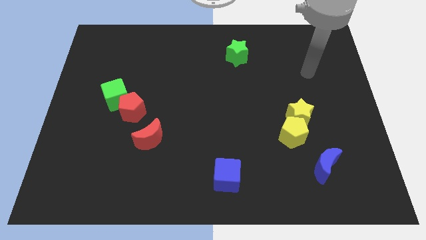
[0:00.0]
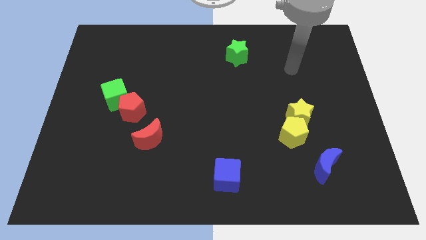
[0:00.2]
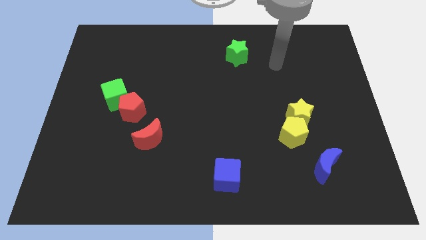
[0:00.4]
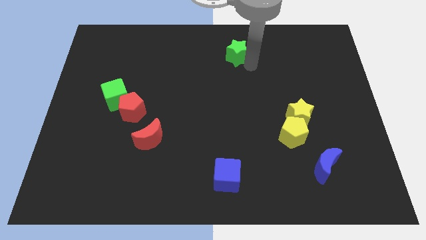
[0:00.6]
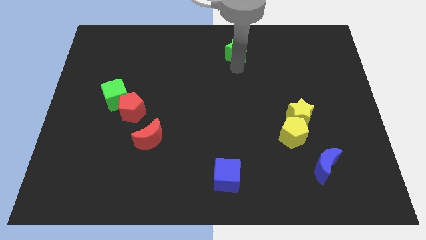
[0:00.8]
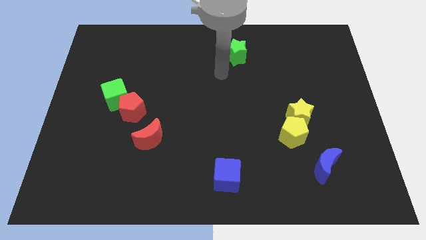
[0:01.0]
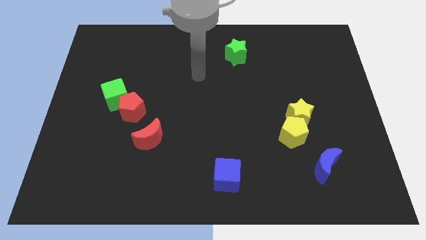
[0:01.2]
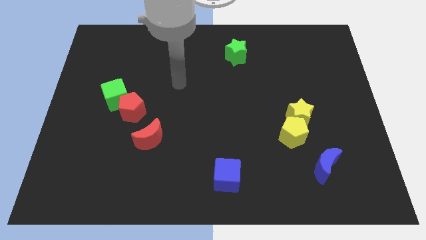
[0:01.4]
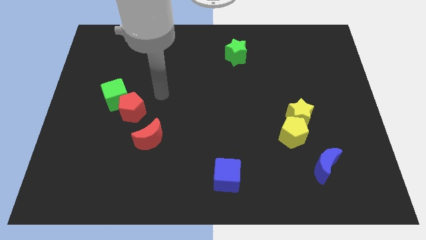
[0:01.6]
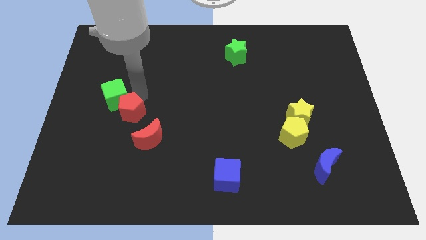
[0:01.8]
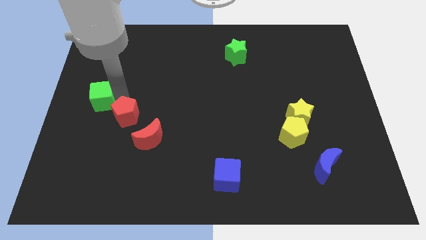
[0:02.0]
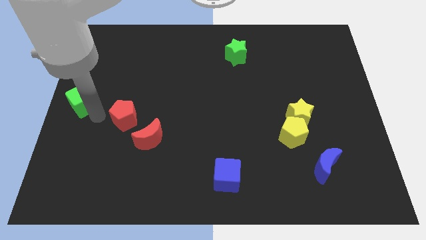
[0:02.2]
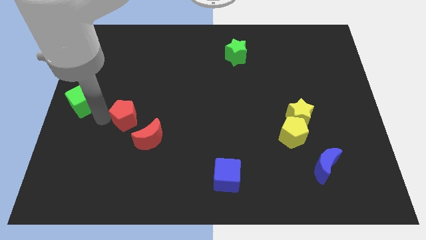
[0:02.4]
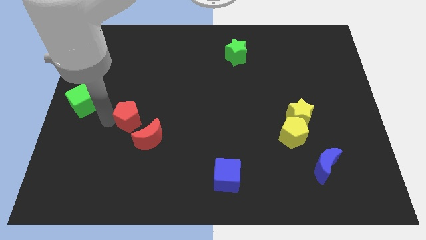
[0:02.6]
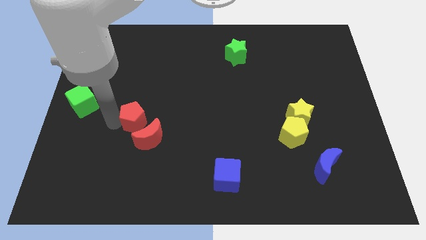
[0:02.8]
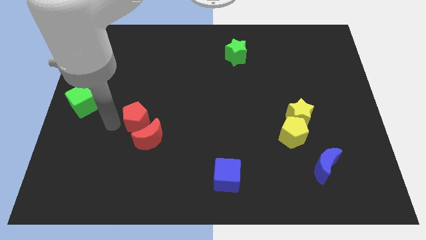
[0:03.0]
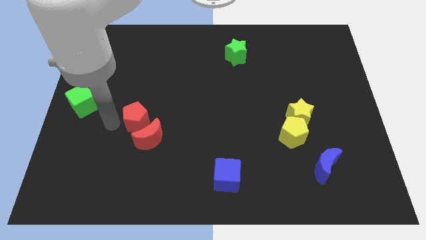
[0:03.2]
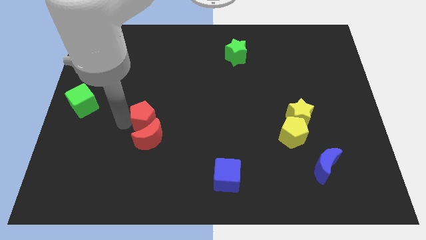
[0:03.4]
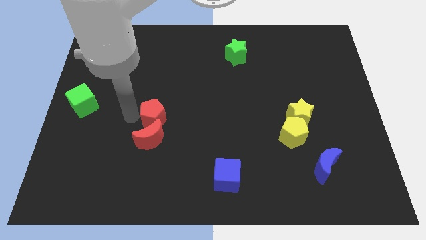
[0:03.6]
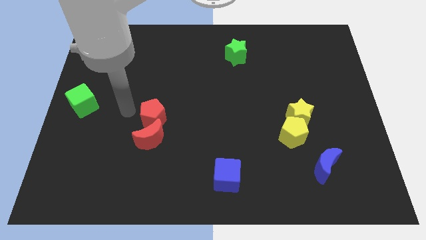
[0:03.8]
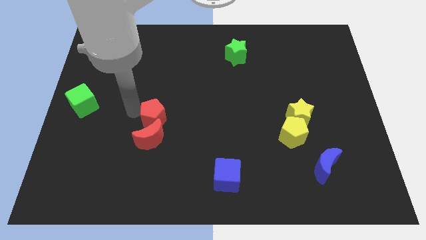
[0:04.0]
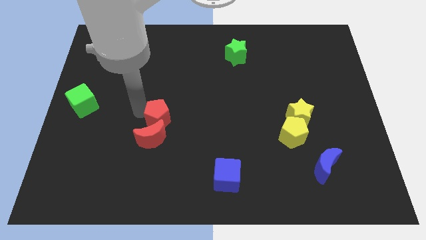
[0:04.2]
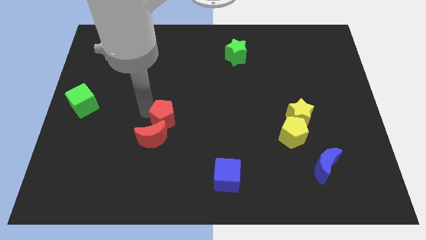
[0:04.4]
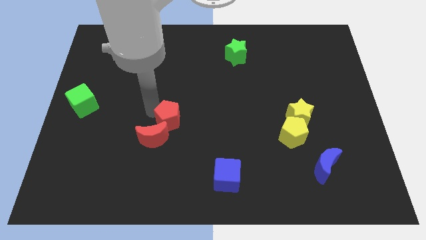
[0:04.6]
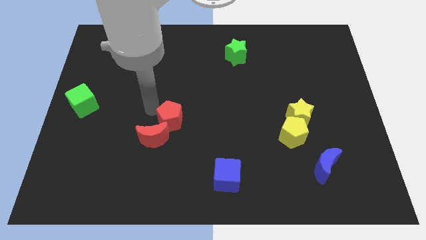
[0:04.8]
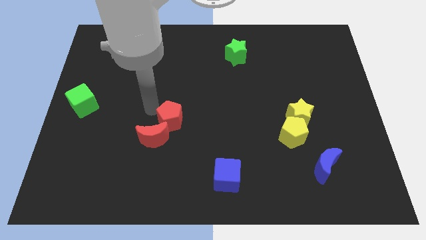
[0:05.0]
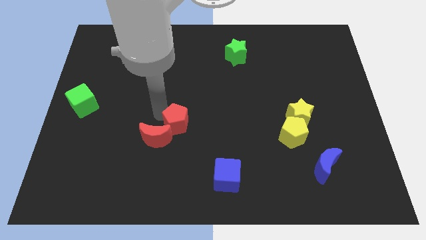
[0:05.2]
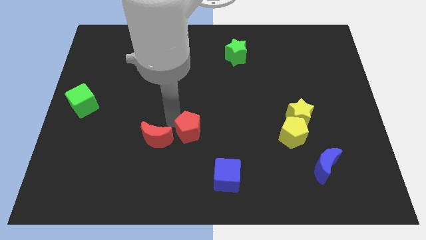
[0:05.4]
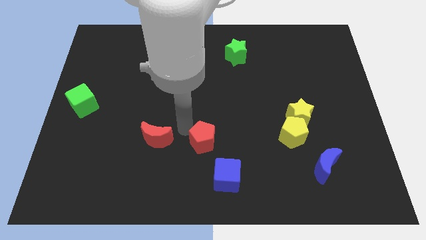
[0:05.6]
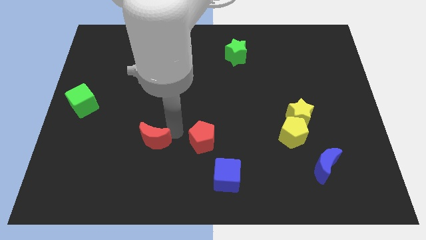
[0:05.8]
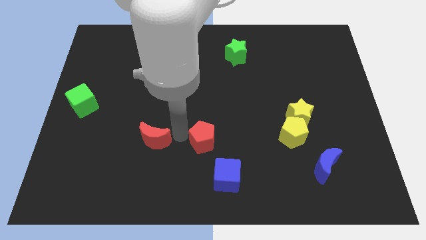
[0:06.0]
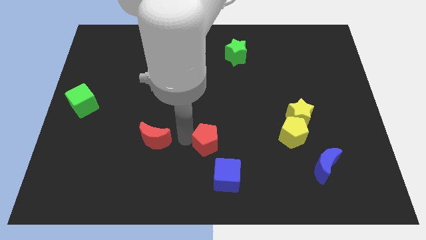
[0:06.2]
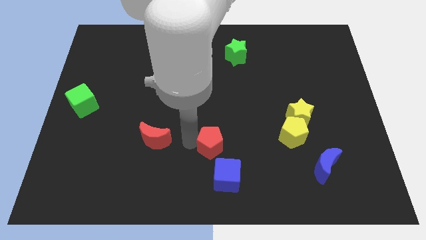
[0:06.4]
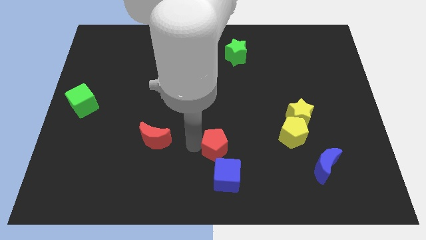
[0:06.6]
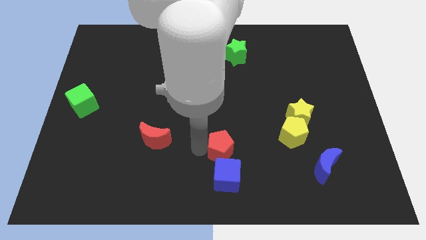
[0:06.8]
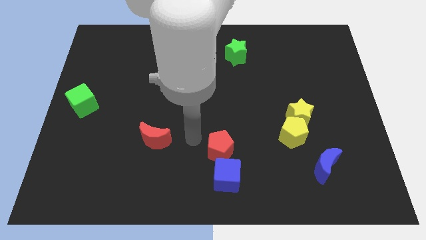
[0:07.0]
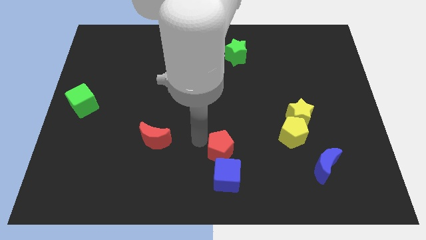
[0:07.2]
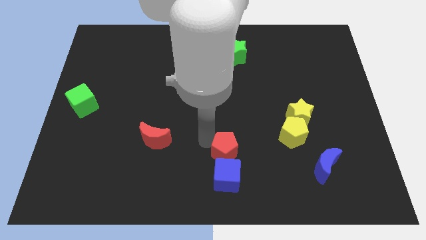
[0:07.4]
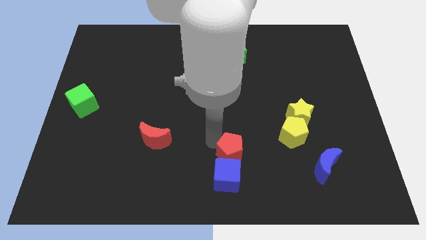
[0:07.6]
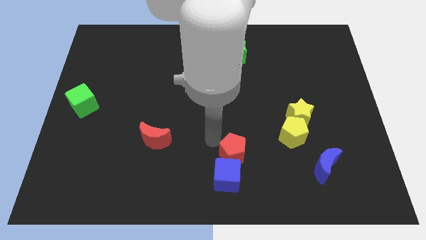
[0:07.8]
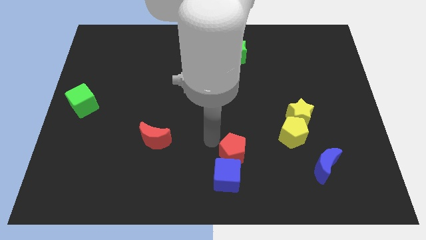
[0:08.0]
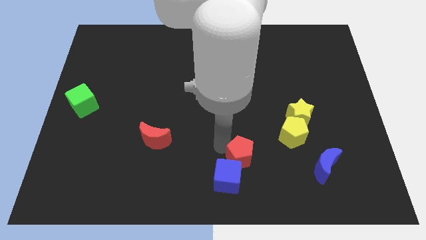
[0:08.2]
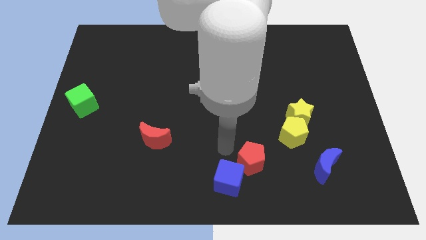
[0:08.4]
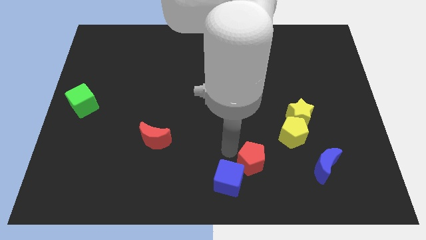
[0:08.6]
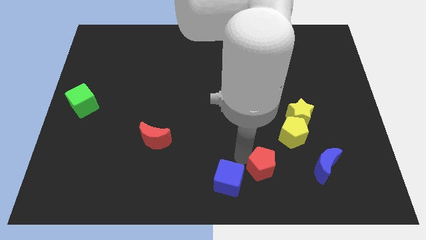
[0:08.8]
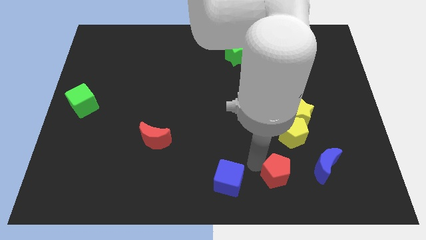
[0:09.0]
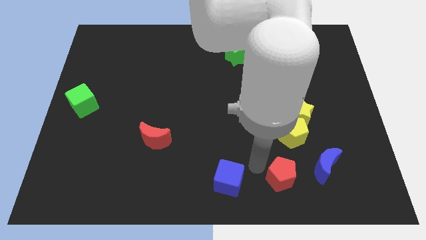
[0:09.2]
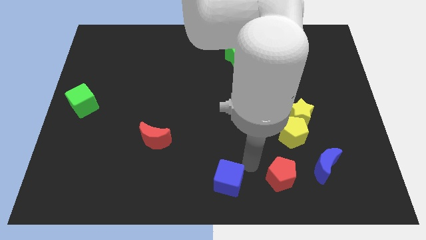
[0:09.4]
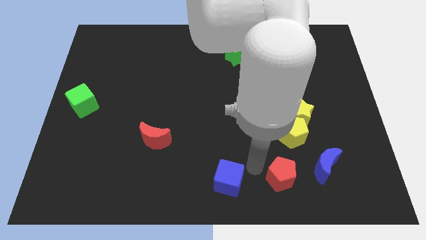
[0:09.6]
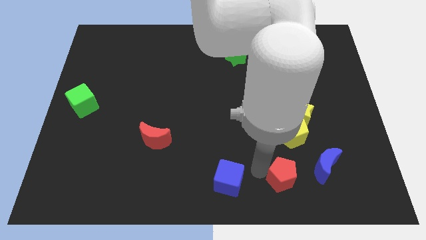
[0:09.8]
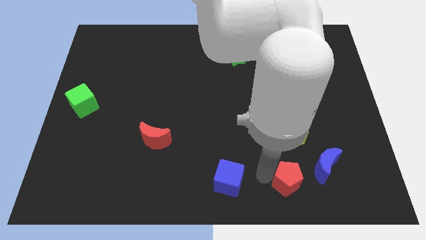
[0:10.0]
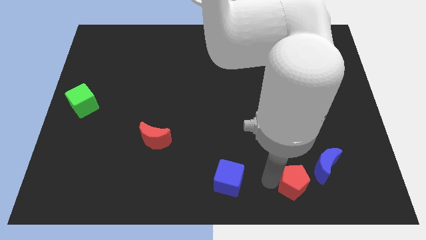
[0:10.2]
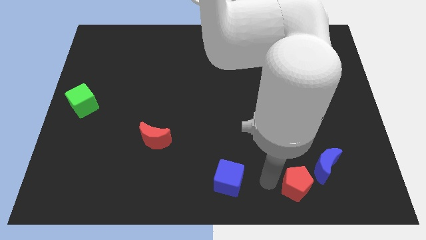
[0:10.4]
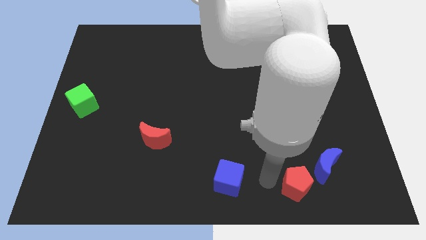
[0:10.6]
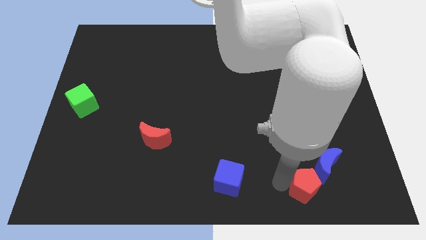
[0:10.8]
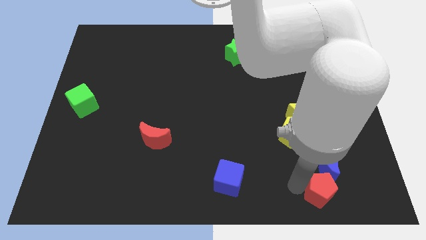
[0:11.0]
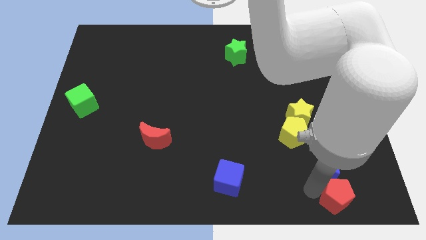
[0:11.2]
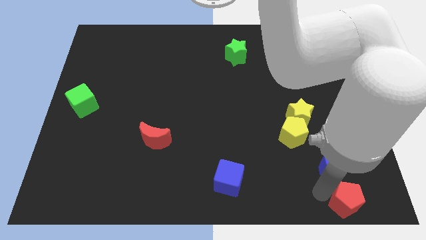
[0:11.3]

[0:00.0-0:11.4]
push the red pentagon to the bottom right
